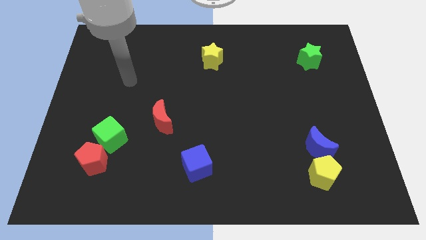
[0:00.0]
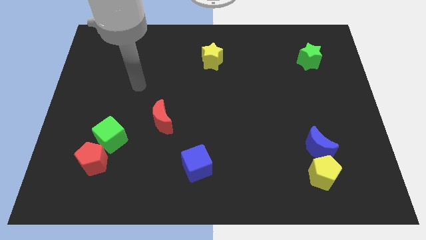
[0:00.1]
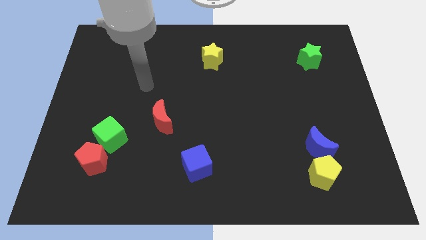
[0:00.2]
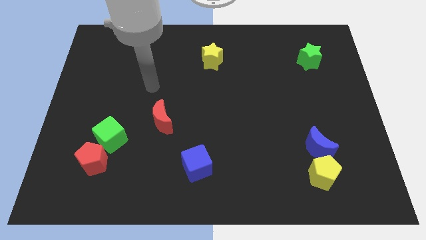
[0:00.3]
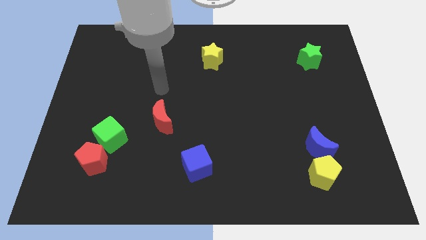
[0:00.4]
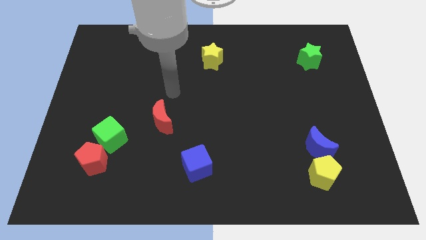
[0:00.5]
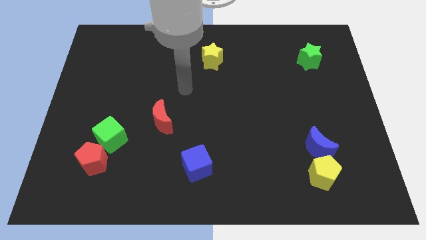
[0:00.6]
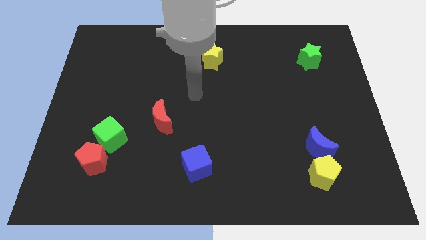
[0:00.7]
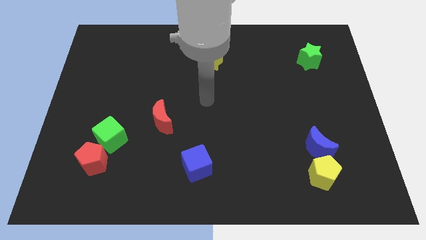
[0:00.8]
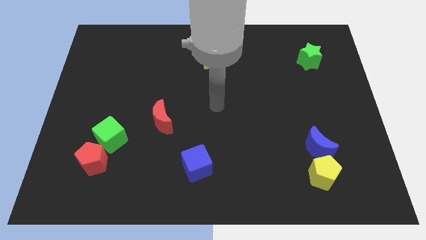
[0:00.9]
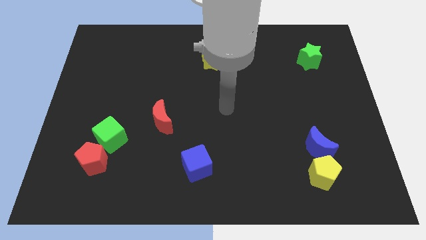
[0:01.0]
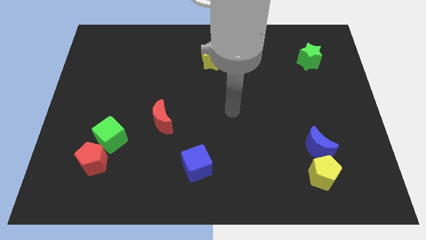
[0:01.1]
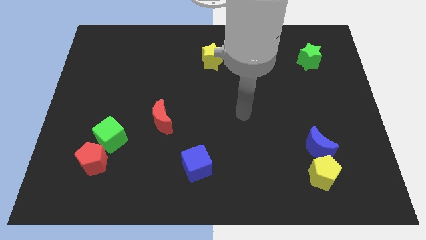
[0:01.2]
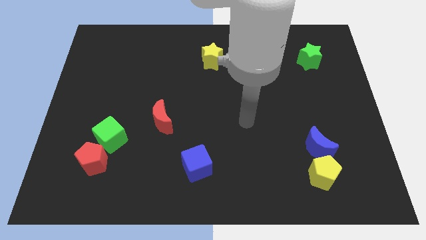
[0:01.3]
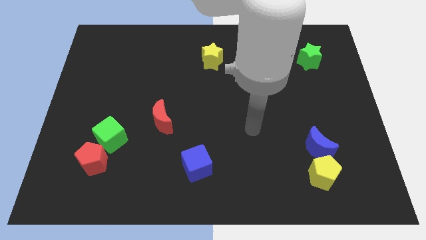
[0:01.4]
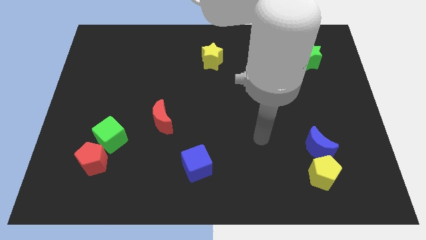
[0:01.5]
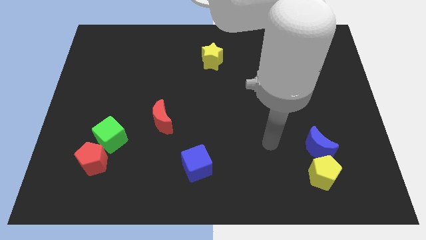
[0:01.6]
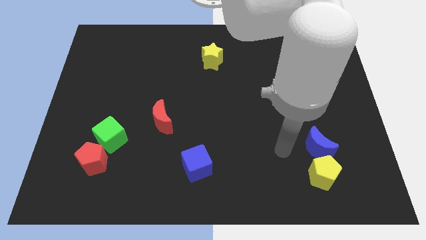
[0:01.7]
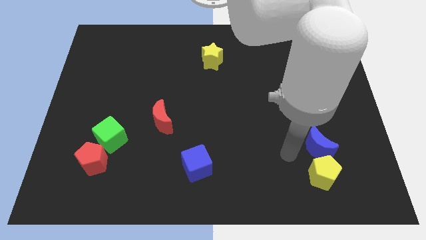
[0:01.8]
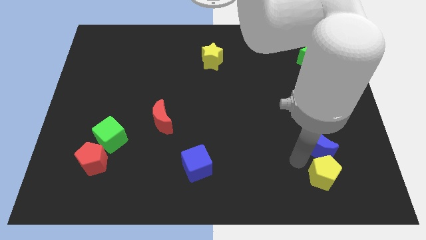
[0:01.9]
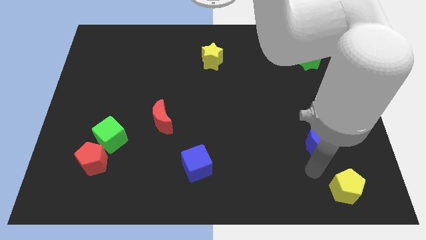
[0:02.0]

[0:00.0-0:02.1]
move the blue moon away from the yellow pentagon

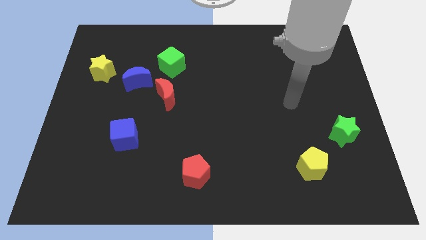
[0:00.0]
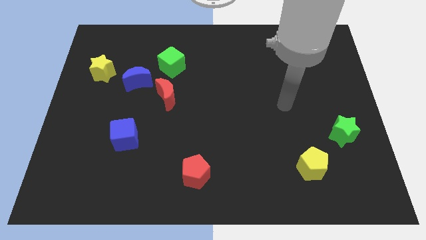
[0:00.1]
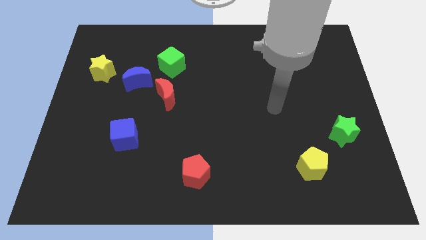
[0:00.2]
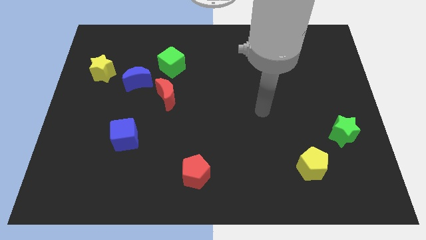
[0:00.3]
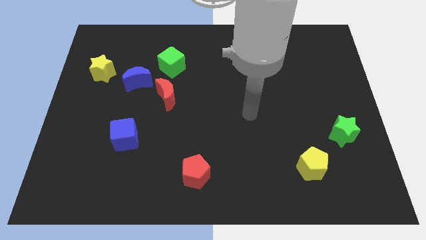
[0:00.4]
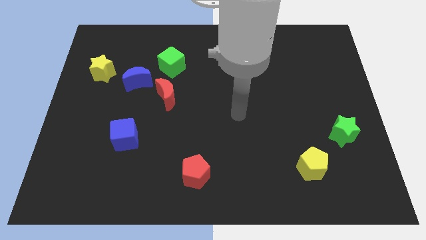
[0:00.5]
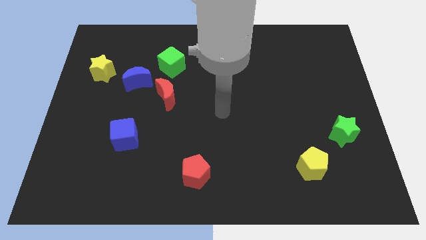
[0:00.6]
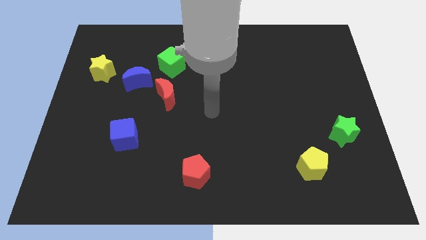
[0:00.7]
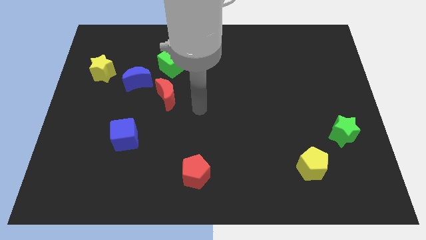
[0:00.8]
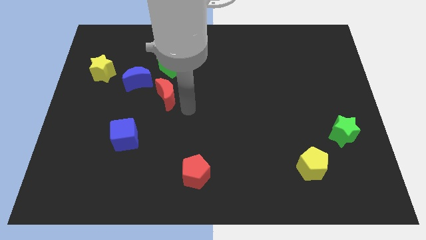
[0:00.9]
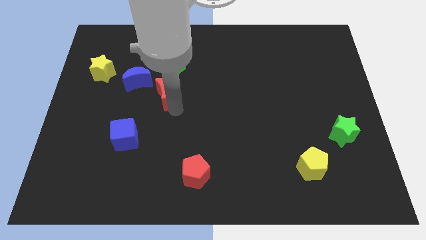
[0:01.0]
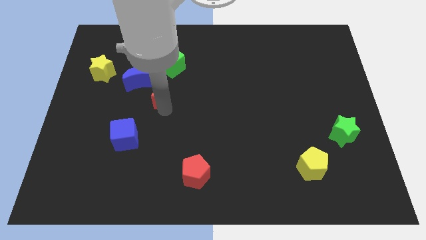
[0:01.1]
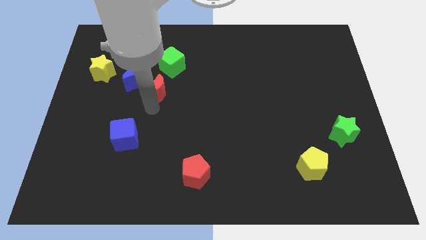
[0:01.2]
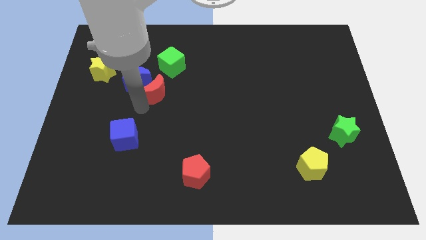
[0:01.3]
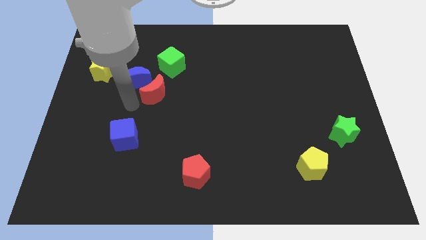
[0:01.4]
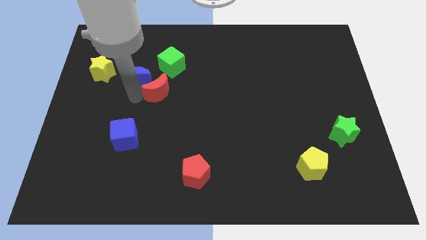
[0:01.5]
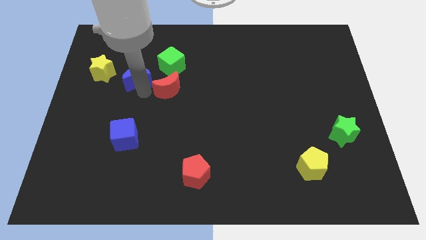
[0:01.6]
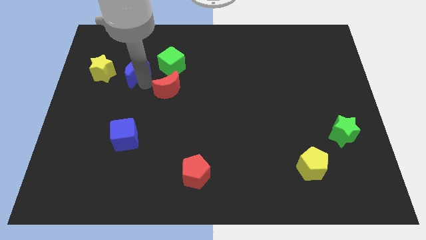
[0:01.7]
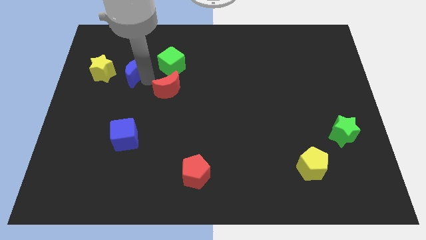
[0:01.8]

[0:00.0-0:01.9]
separate the red moon from the blue moon

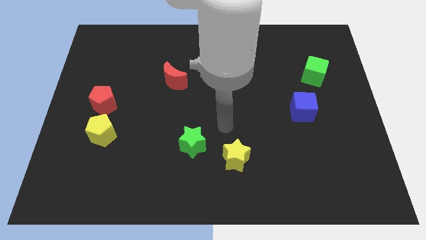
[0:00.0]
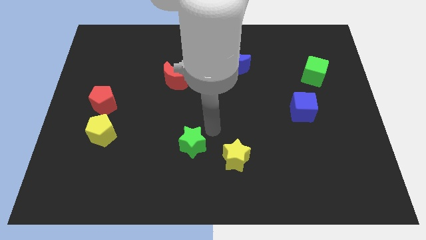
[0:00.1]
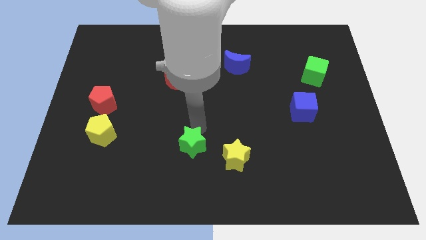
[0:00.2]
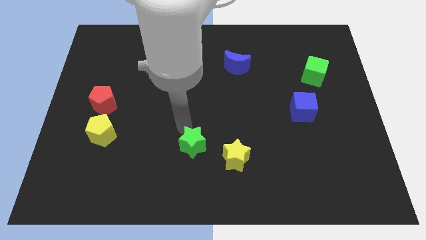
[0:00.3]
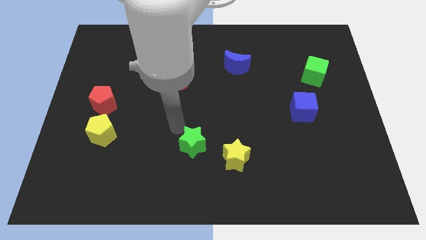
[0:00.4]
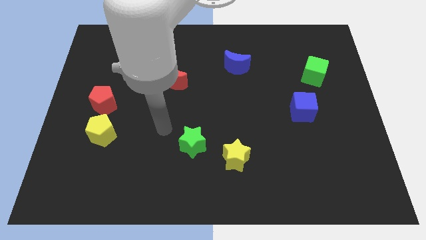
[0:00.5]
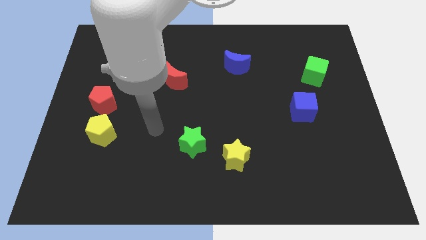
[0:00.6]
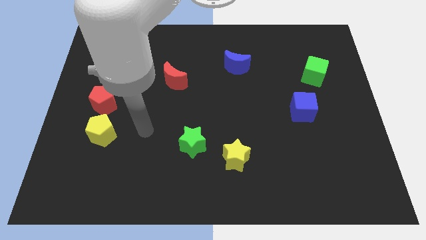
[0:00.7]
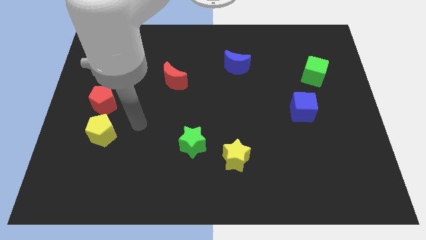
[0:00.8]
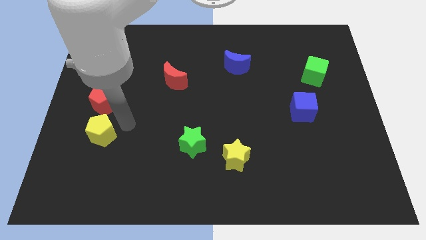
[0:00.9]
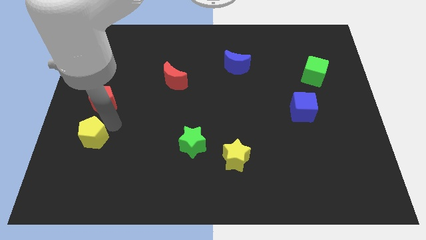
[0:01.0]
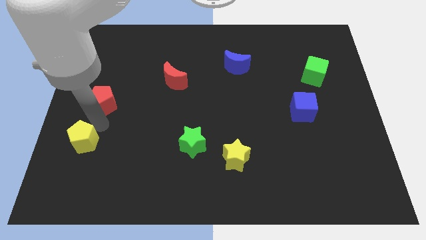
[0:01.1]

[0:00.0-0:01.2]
pull the red pentagon apart from the yellow pentagon

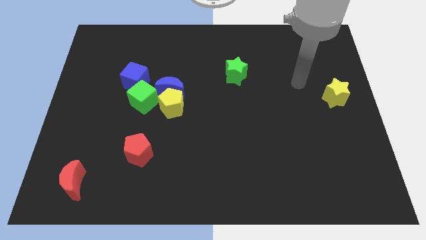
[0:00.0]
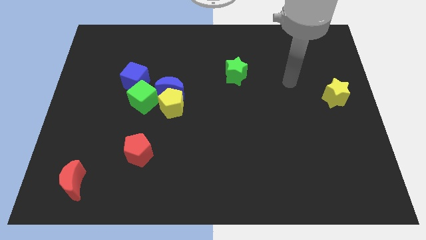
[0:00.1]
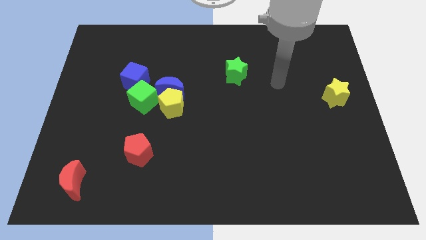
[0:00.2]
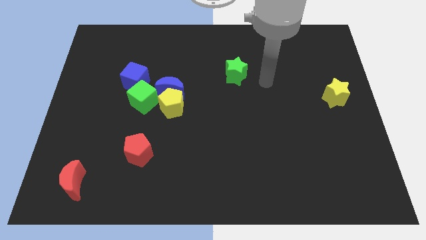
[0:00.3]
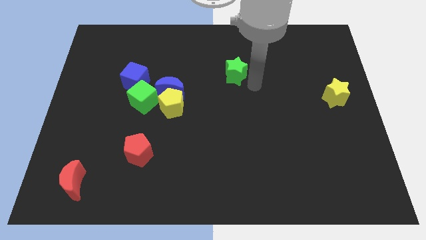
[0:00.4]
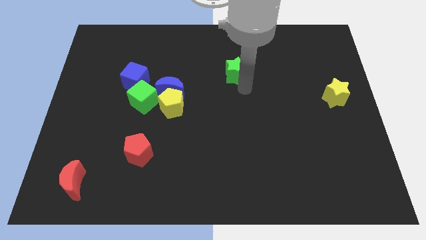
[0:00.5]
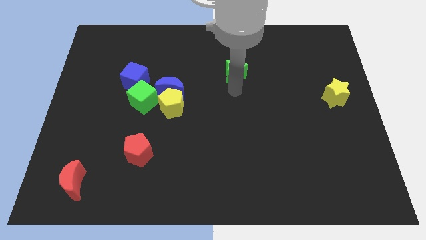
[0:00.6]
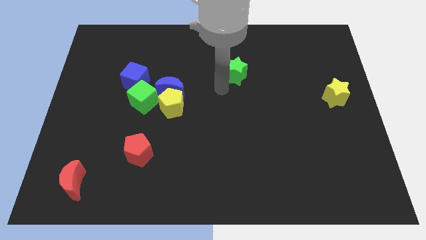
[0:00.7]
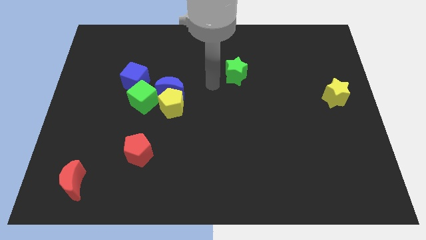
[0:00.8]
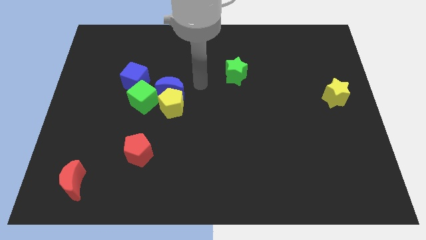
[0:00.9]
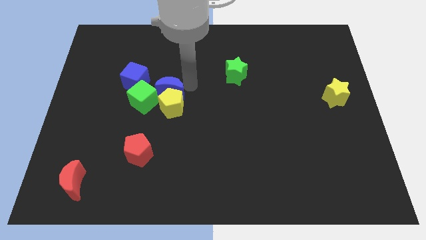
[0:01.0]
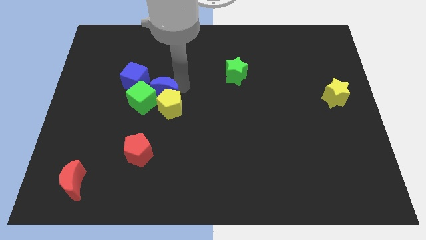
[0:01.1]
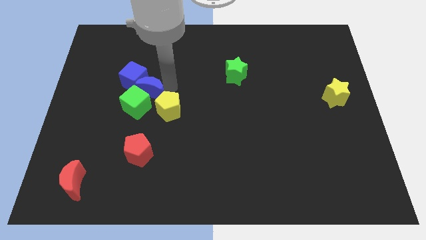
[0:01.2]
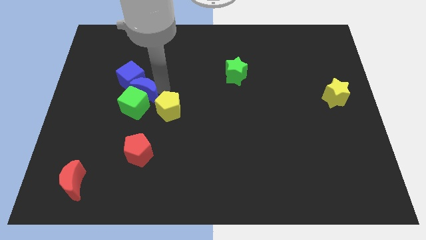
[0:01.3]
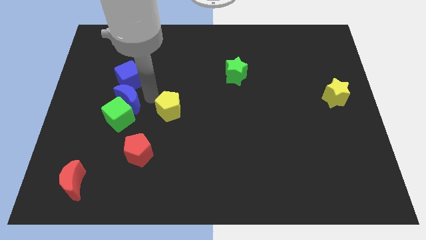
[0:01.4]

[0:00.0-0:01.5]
move the yellow pentagon away from the blue moon and green cube

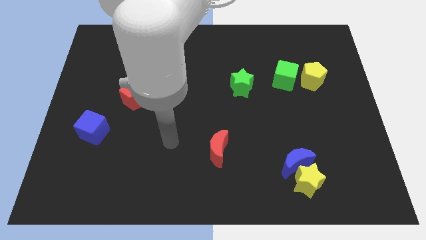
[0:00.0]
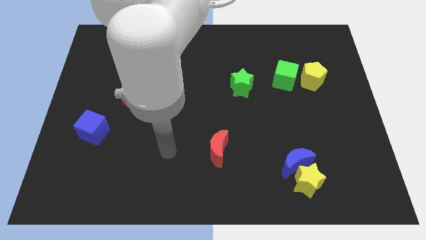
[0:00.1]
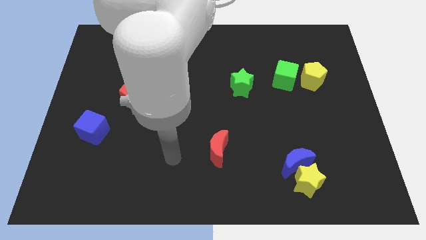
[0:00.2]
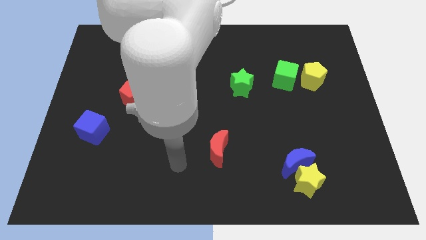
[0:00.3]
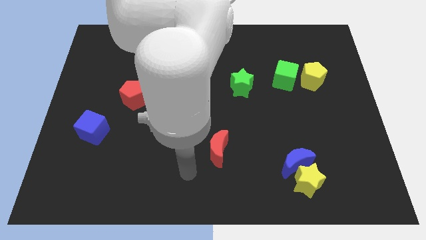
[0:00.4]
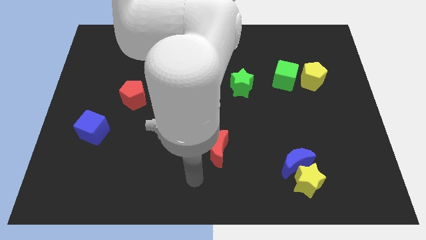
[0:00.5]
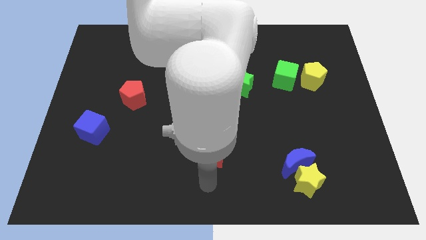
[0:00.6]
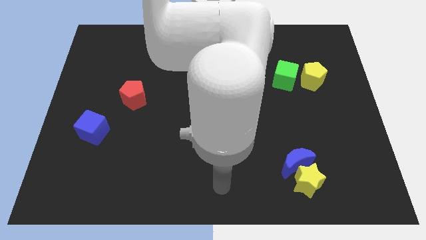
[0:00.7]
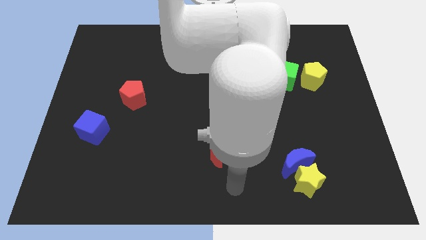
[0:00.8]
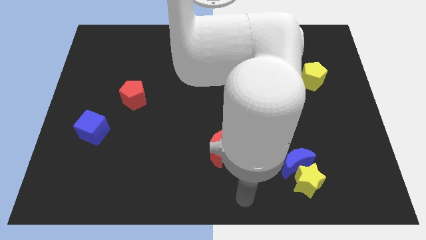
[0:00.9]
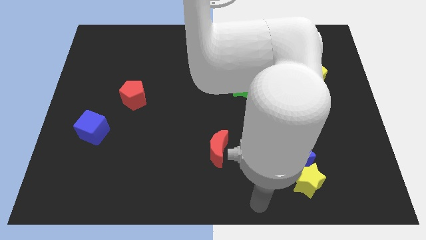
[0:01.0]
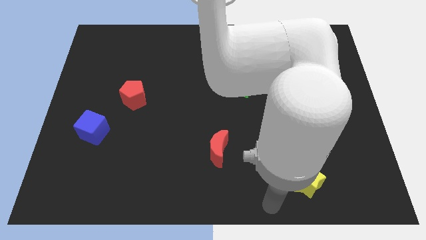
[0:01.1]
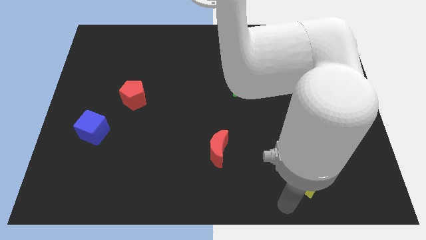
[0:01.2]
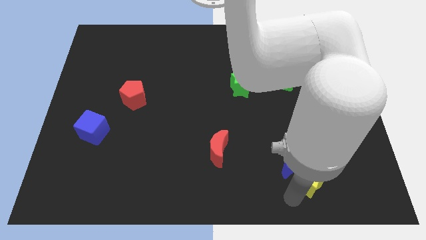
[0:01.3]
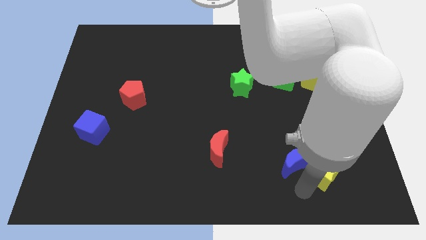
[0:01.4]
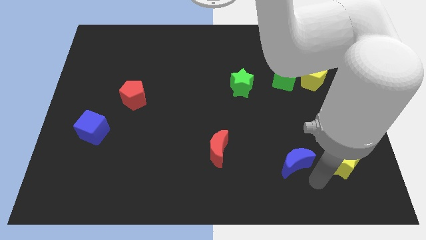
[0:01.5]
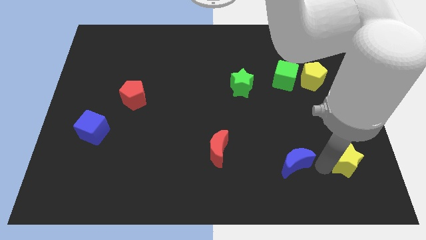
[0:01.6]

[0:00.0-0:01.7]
pull the blue moon apart from the yellow star

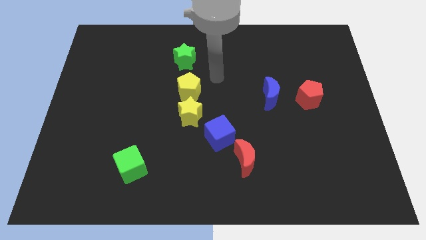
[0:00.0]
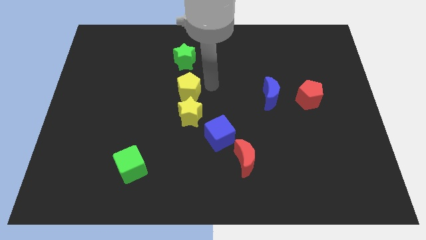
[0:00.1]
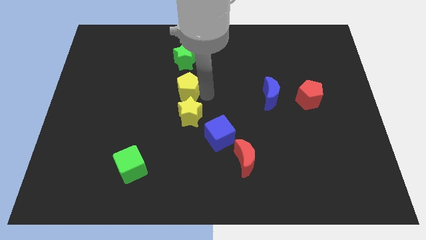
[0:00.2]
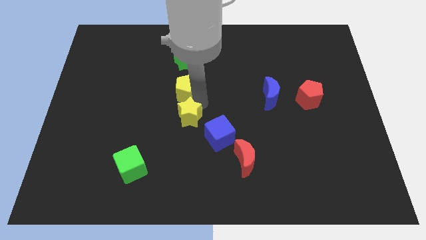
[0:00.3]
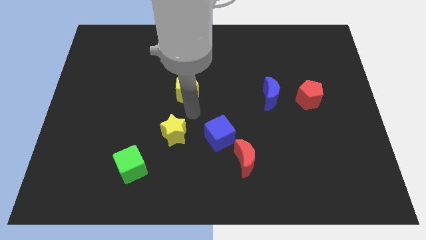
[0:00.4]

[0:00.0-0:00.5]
move the yellow pentagon away from the yellow star

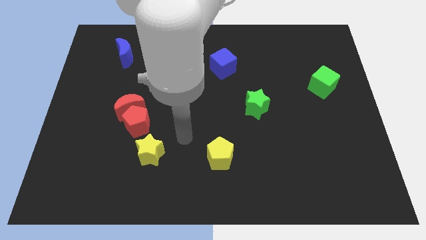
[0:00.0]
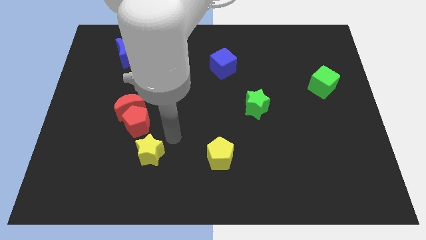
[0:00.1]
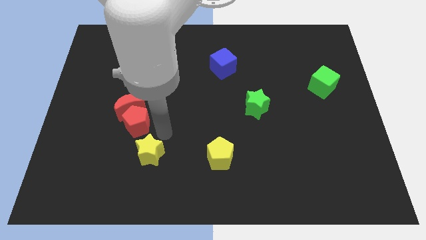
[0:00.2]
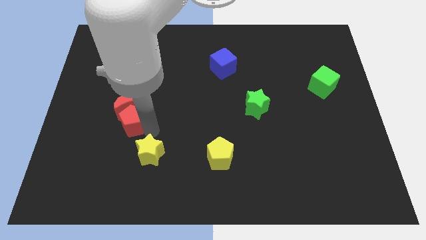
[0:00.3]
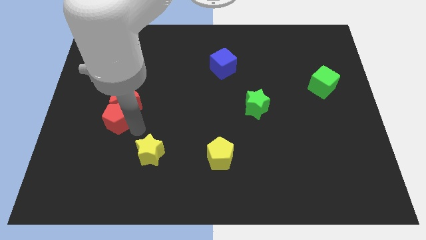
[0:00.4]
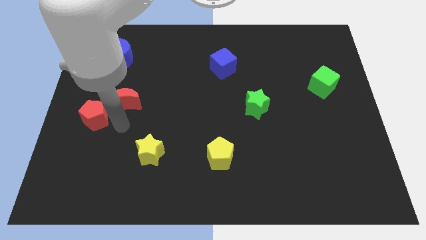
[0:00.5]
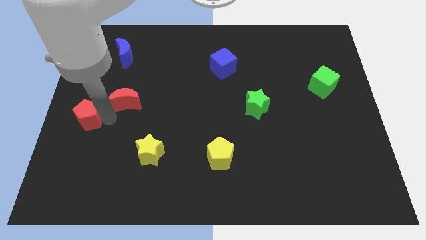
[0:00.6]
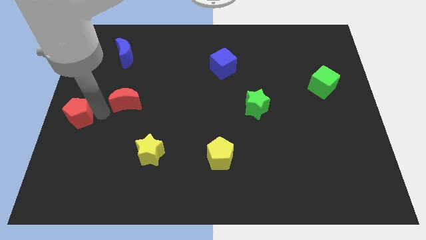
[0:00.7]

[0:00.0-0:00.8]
move the red moon away from the red pentagon
